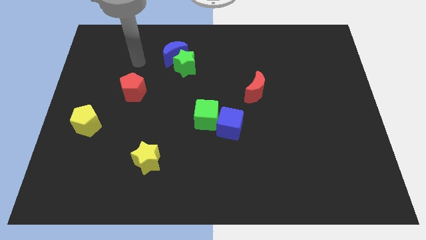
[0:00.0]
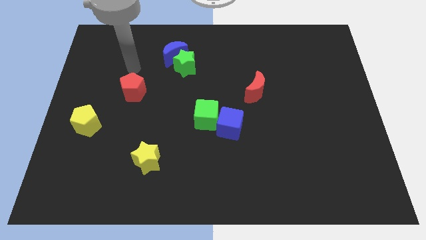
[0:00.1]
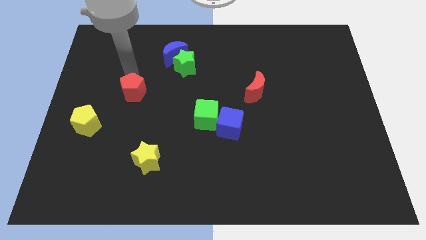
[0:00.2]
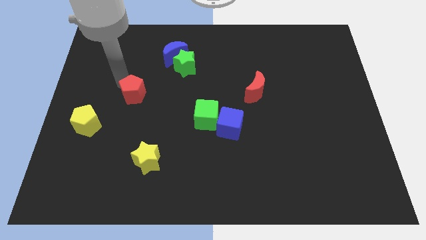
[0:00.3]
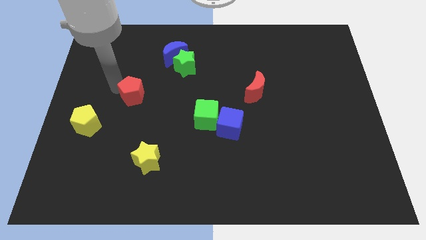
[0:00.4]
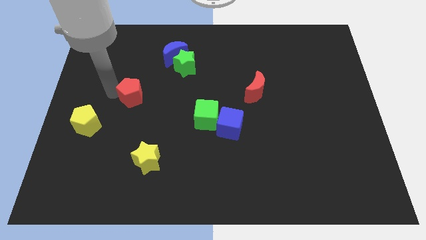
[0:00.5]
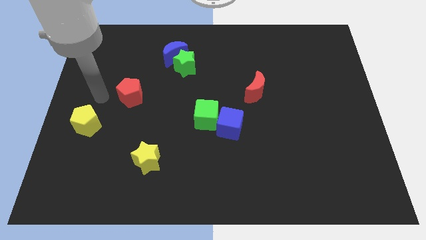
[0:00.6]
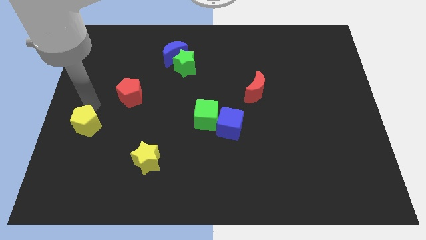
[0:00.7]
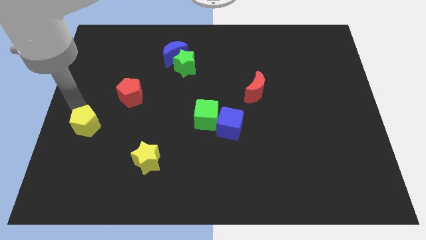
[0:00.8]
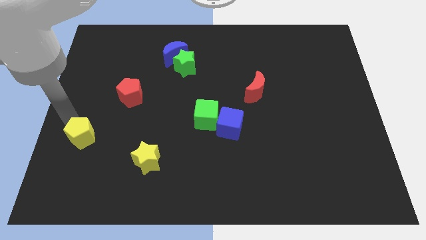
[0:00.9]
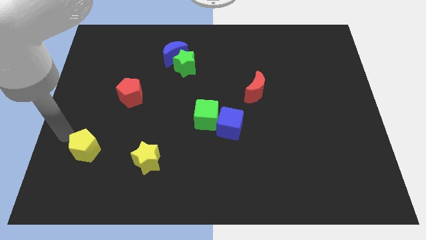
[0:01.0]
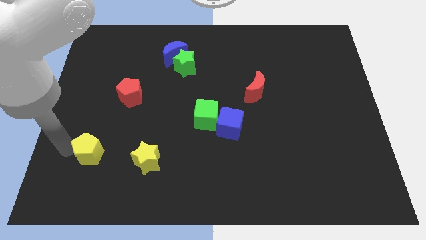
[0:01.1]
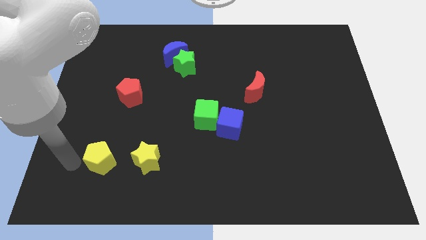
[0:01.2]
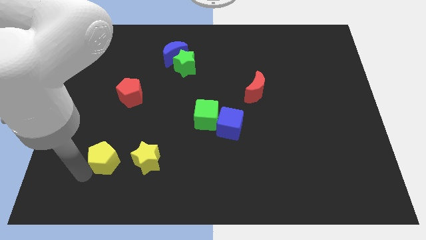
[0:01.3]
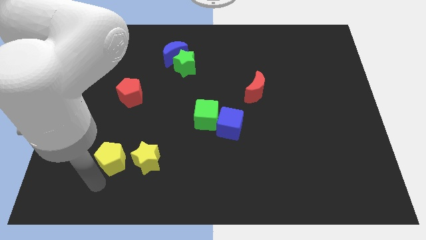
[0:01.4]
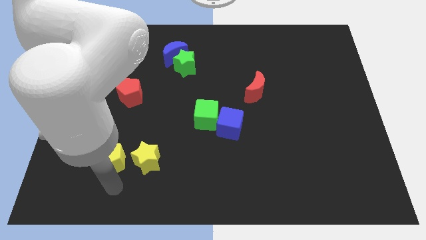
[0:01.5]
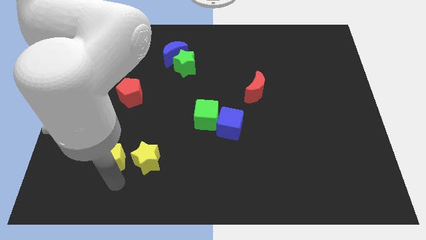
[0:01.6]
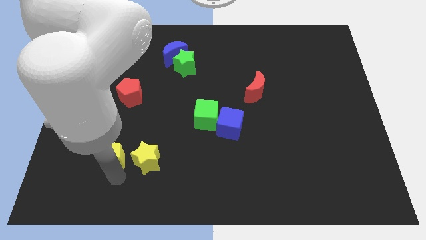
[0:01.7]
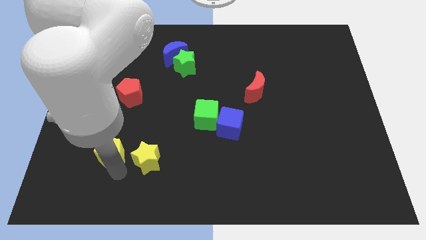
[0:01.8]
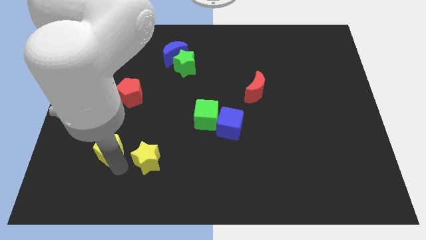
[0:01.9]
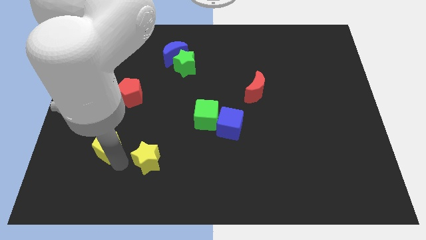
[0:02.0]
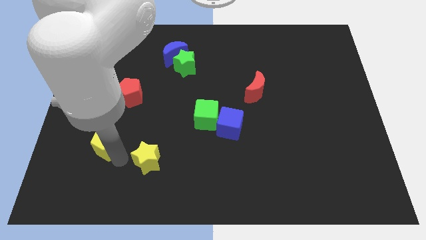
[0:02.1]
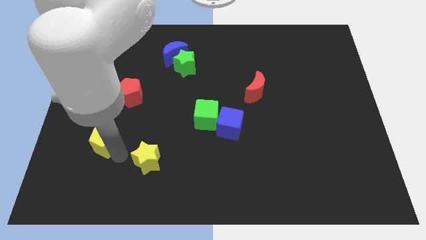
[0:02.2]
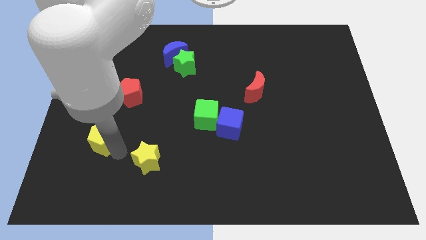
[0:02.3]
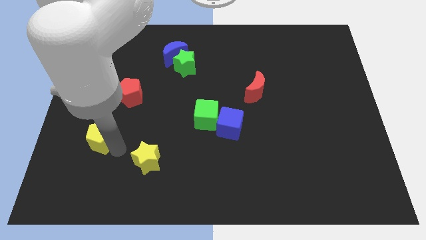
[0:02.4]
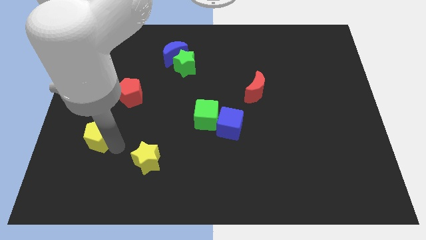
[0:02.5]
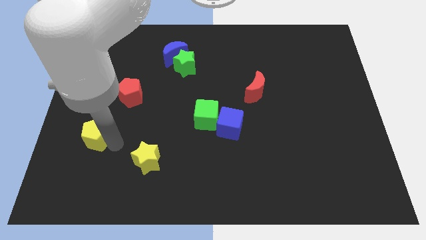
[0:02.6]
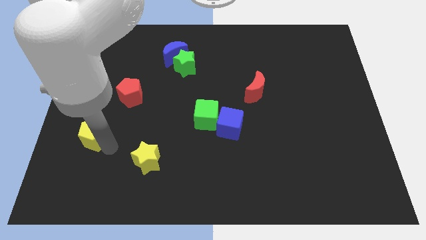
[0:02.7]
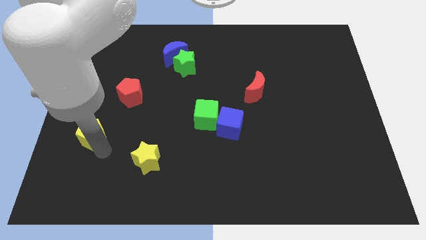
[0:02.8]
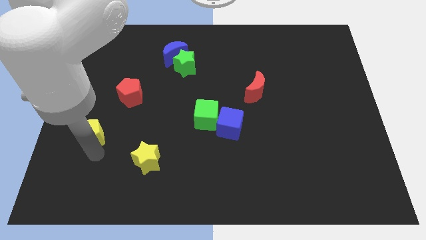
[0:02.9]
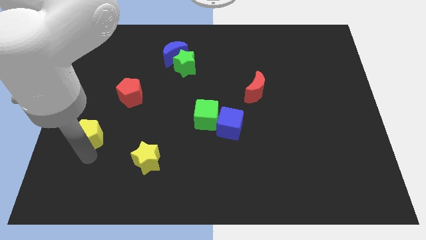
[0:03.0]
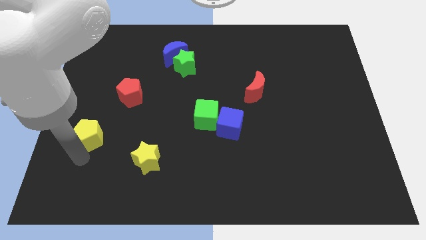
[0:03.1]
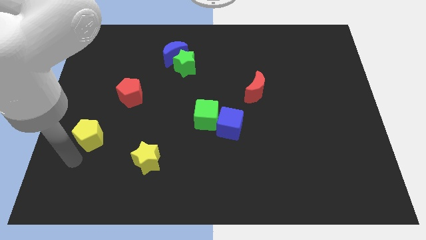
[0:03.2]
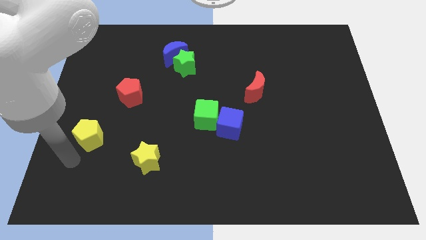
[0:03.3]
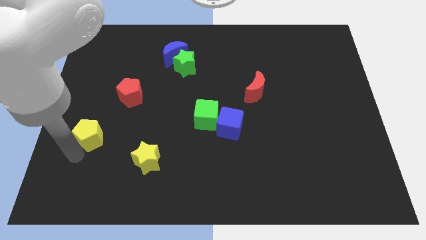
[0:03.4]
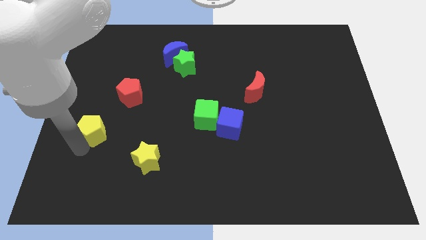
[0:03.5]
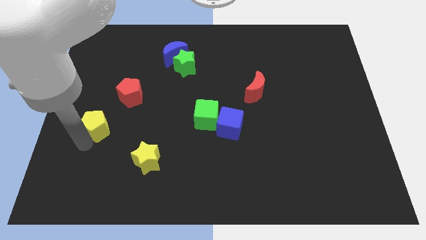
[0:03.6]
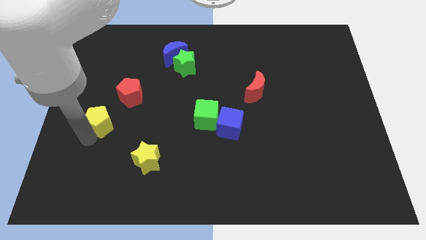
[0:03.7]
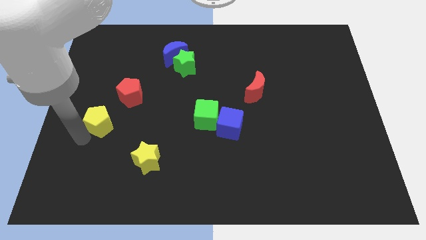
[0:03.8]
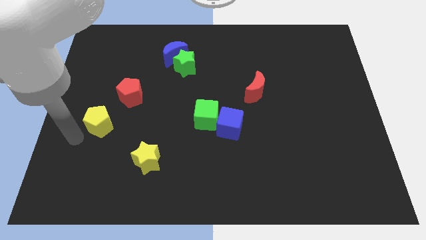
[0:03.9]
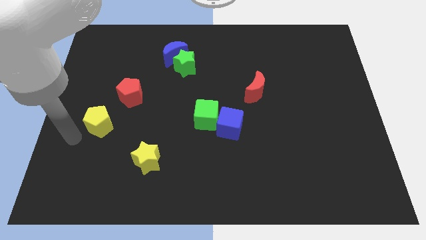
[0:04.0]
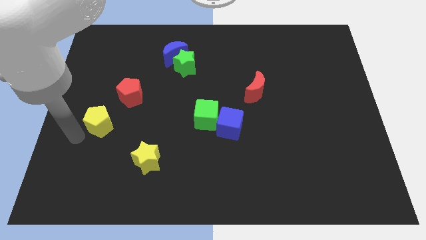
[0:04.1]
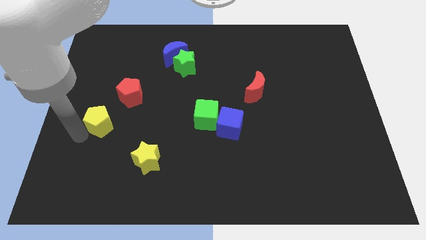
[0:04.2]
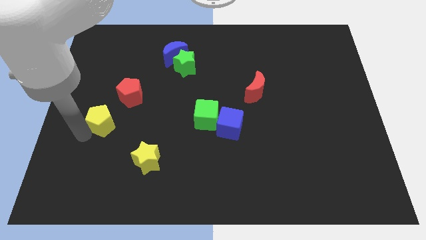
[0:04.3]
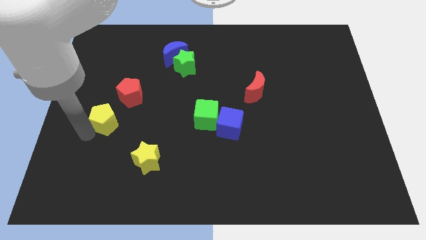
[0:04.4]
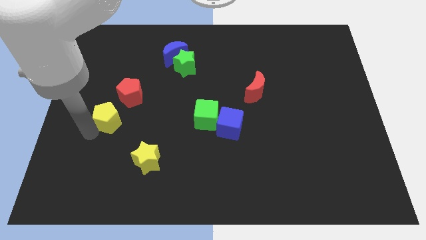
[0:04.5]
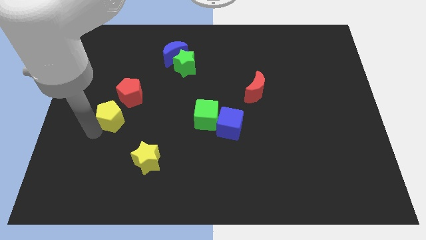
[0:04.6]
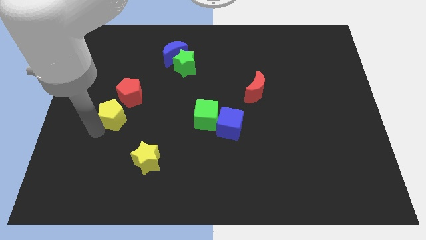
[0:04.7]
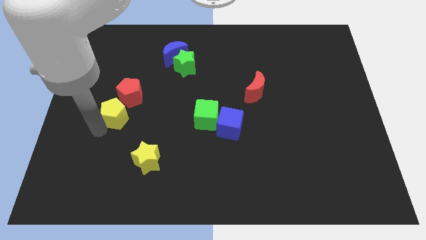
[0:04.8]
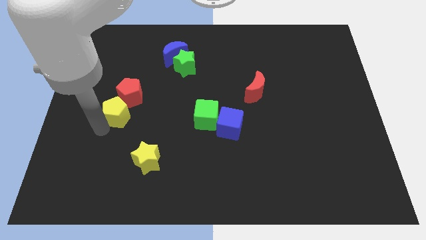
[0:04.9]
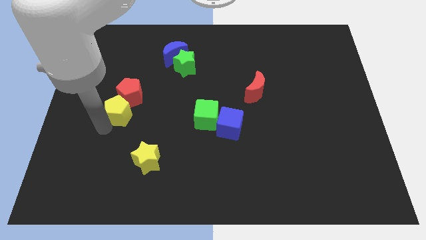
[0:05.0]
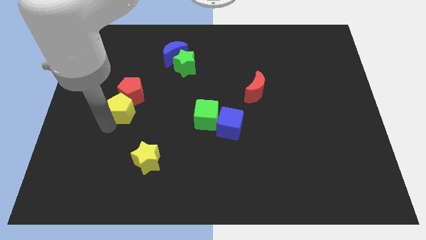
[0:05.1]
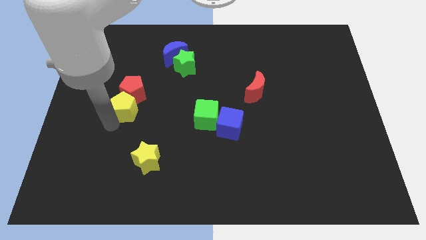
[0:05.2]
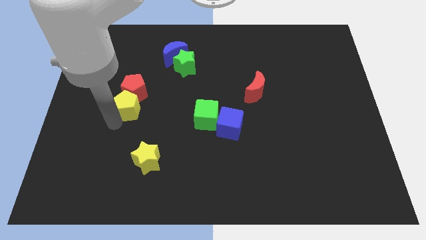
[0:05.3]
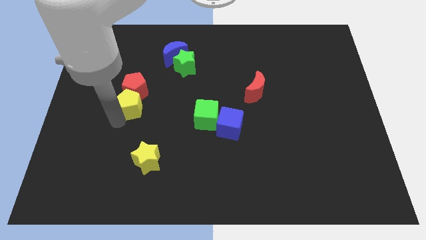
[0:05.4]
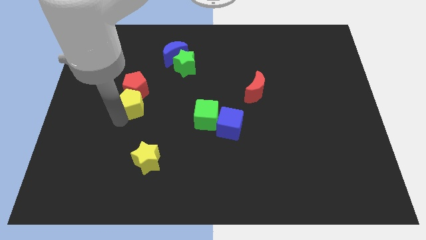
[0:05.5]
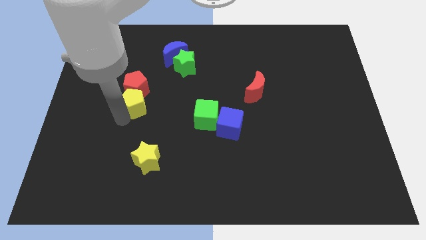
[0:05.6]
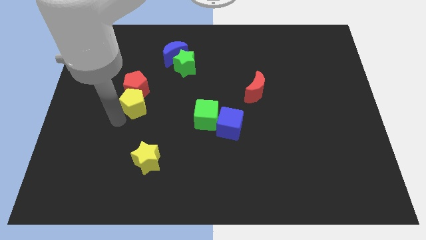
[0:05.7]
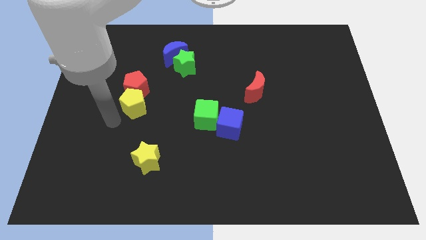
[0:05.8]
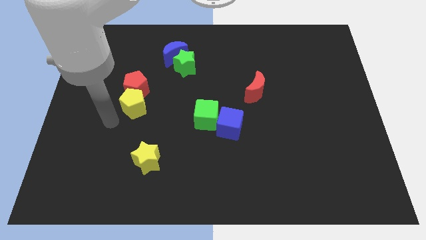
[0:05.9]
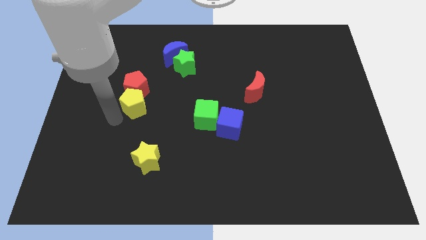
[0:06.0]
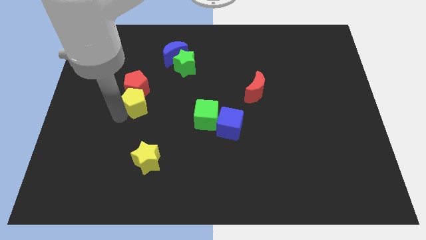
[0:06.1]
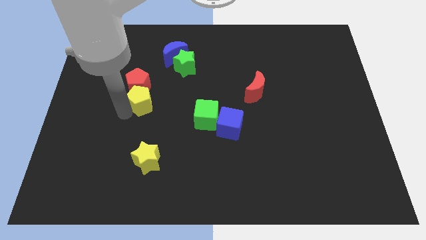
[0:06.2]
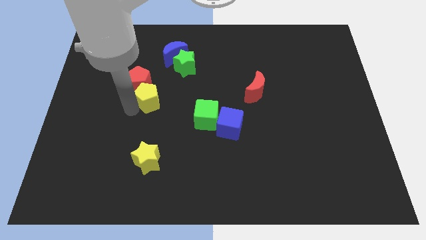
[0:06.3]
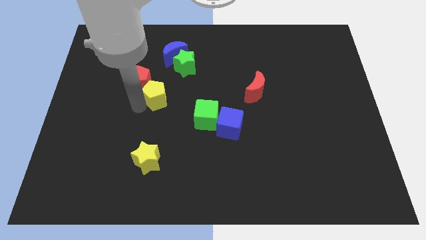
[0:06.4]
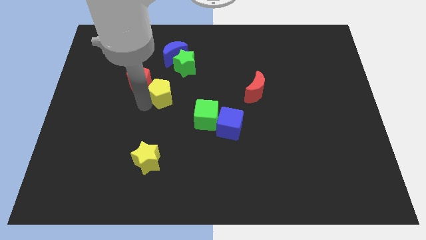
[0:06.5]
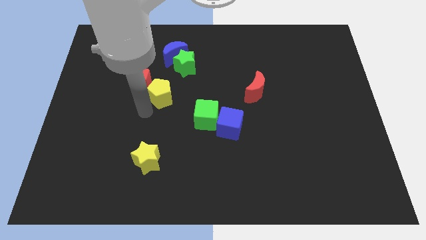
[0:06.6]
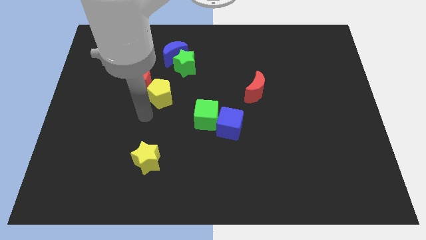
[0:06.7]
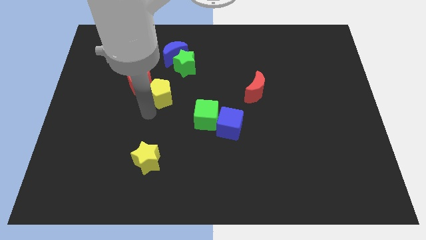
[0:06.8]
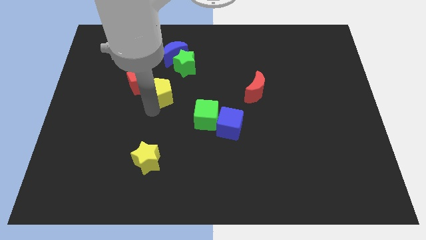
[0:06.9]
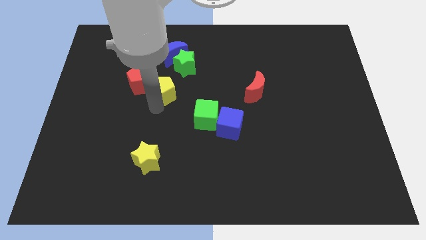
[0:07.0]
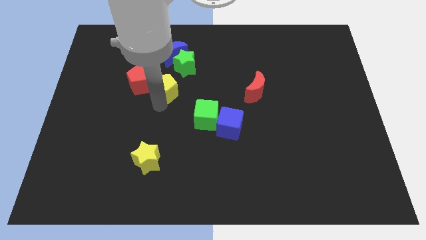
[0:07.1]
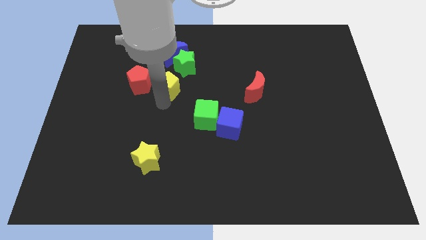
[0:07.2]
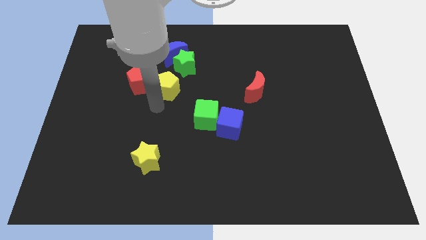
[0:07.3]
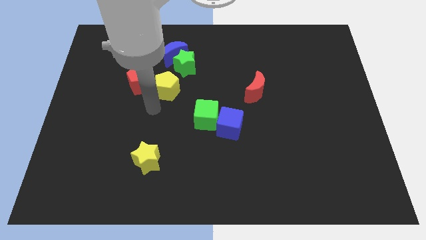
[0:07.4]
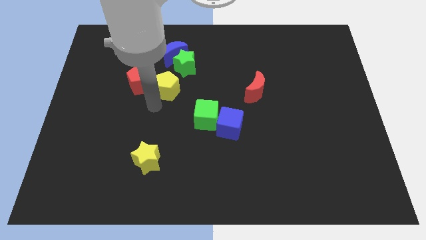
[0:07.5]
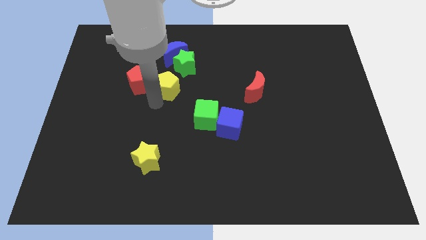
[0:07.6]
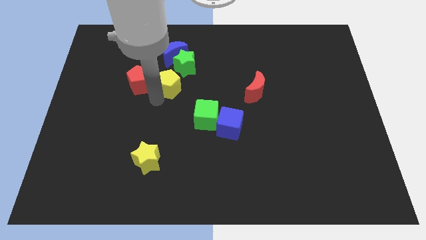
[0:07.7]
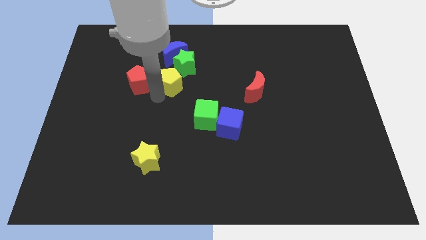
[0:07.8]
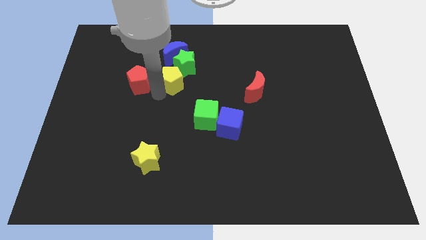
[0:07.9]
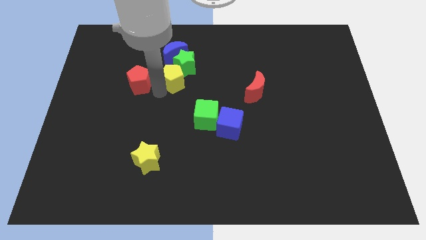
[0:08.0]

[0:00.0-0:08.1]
put the yellow pentagon towards the green star

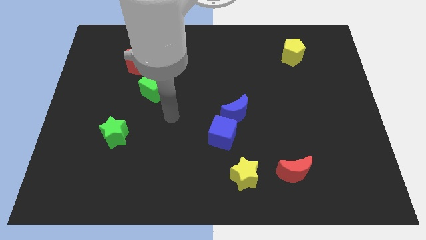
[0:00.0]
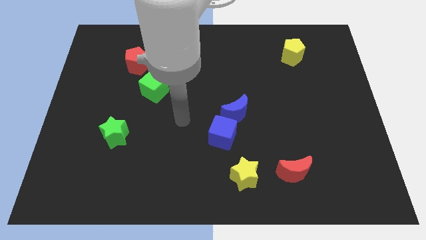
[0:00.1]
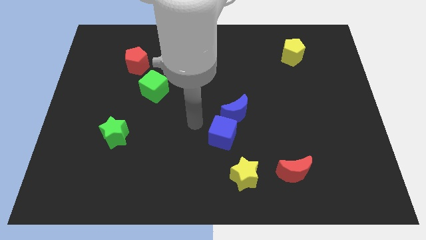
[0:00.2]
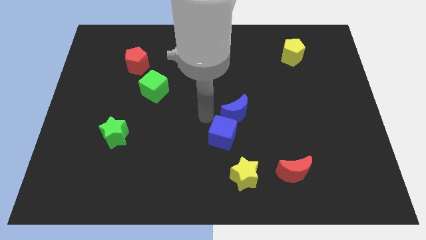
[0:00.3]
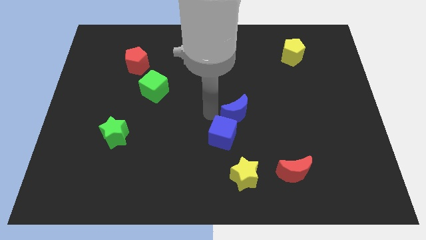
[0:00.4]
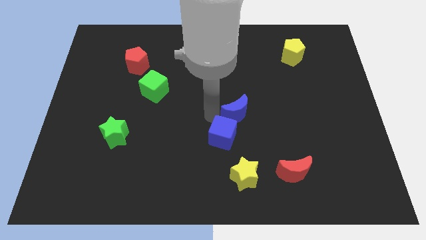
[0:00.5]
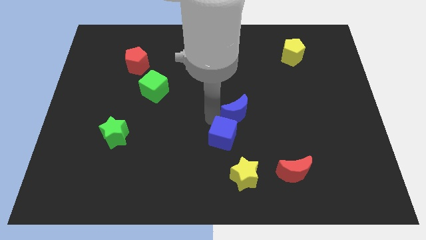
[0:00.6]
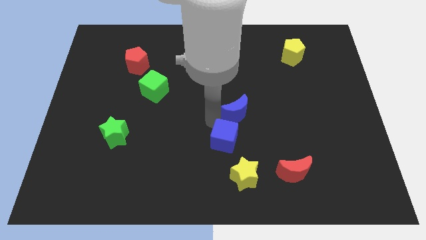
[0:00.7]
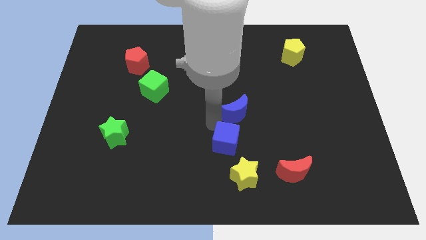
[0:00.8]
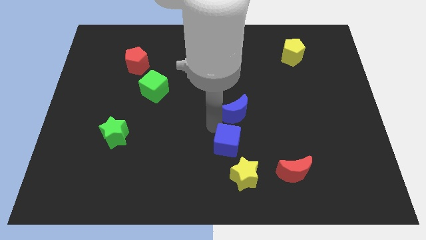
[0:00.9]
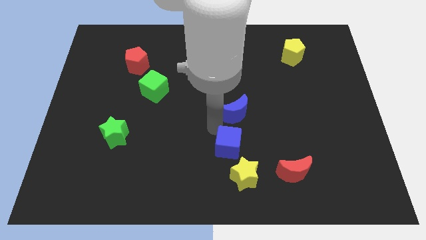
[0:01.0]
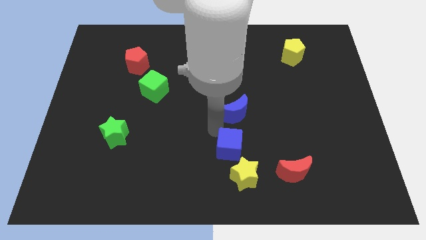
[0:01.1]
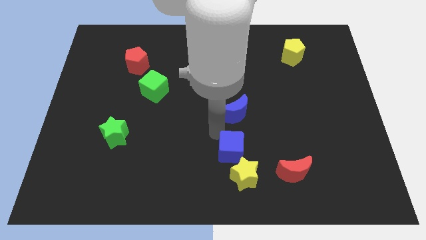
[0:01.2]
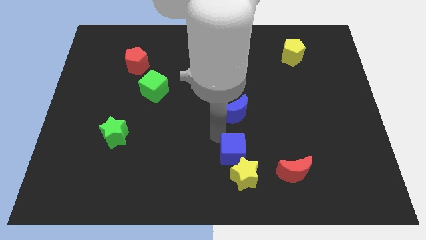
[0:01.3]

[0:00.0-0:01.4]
move the blue cube towards the yellow star
